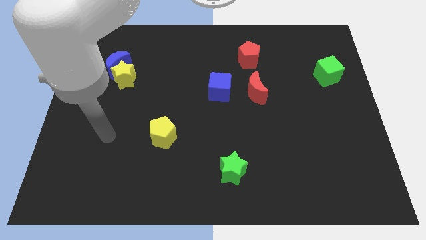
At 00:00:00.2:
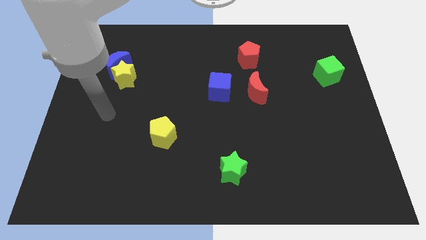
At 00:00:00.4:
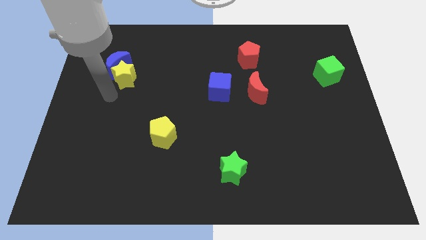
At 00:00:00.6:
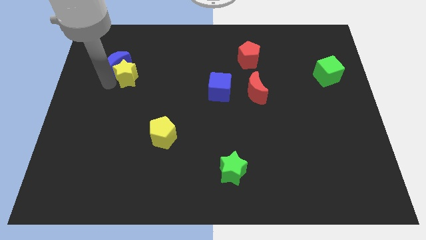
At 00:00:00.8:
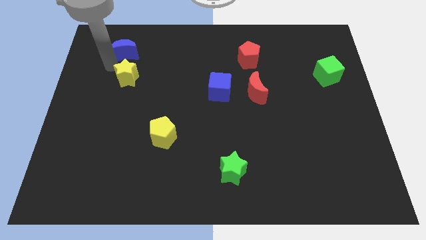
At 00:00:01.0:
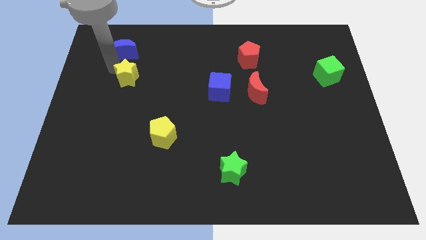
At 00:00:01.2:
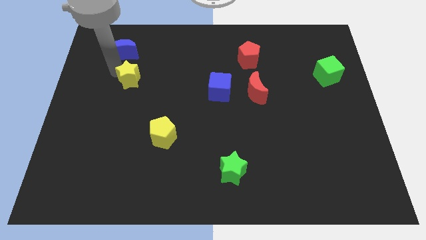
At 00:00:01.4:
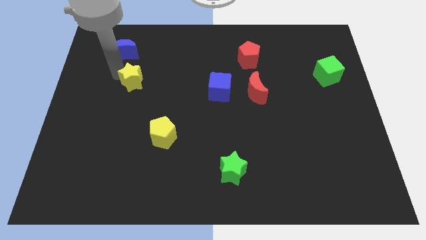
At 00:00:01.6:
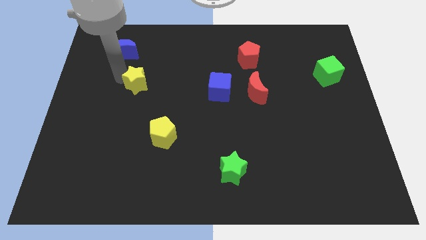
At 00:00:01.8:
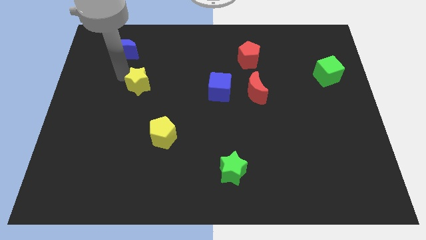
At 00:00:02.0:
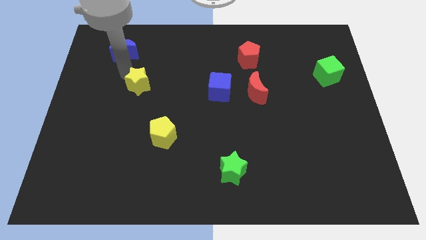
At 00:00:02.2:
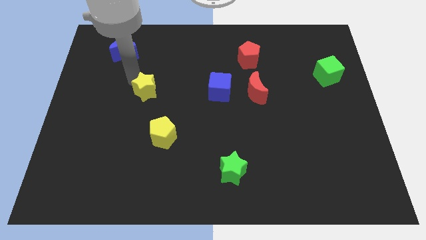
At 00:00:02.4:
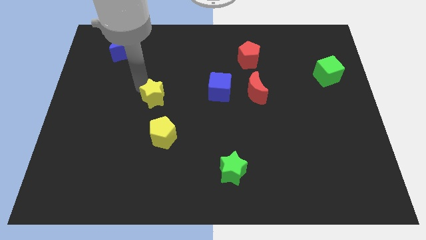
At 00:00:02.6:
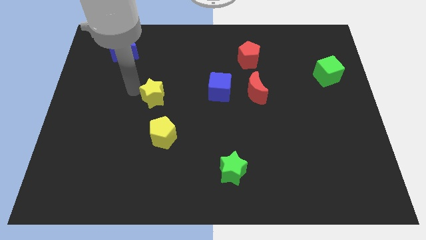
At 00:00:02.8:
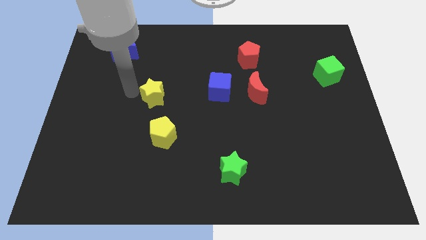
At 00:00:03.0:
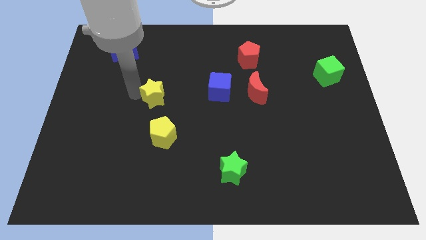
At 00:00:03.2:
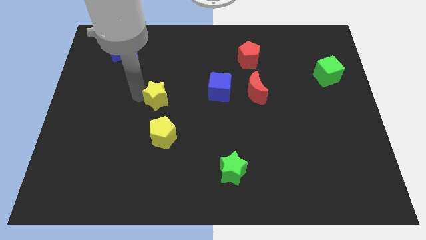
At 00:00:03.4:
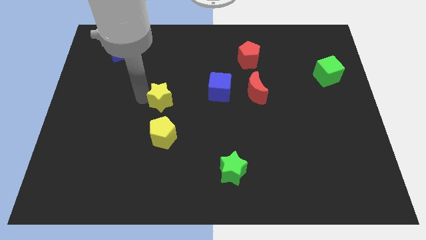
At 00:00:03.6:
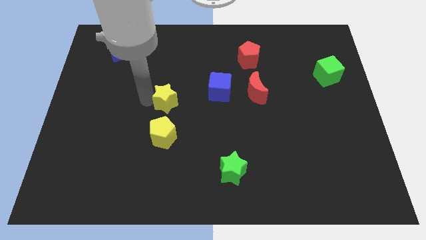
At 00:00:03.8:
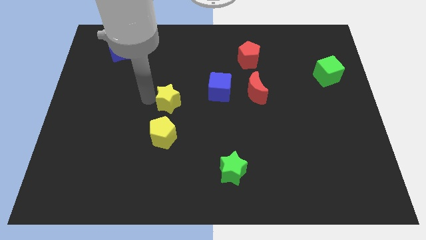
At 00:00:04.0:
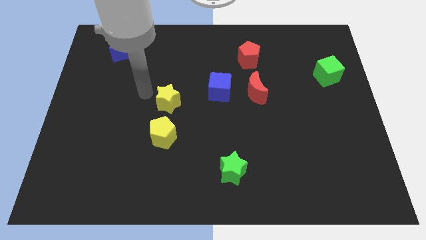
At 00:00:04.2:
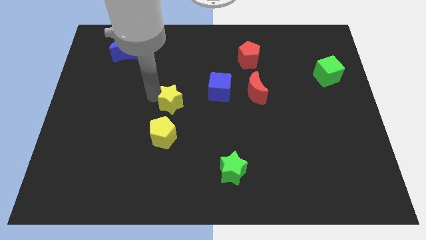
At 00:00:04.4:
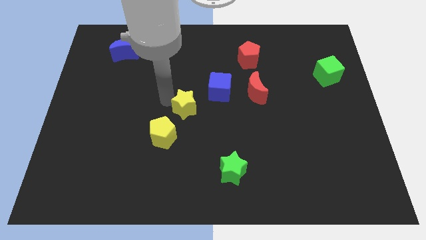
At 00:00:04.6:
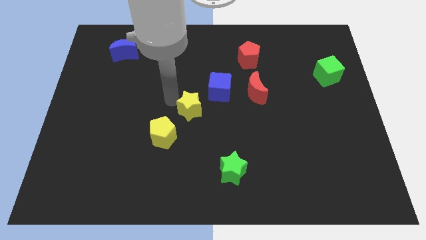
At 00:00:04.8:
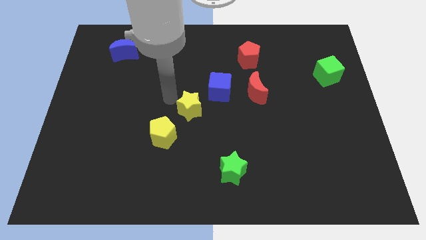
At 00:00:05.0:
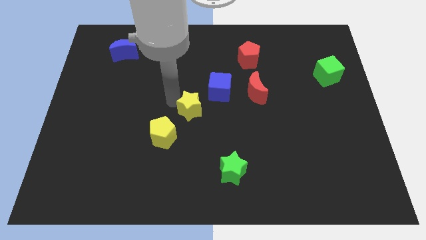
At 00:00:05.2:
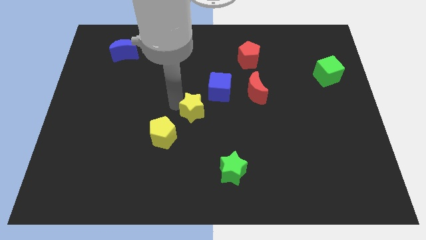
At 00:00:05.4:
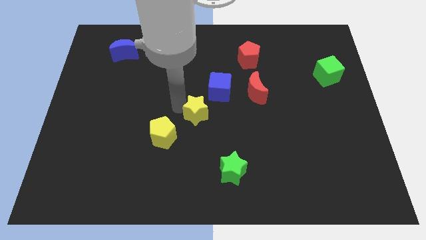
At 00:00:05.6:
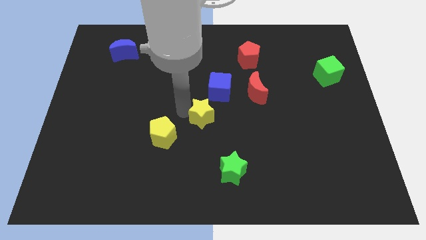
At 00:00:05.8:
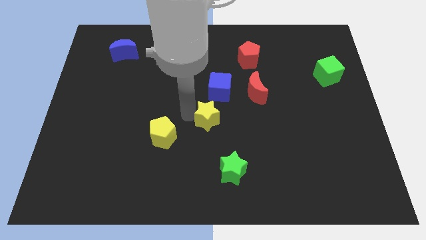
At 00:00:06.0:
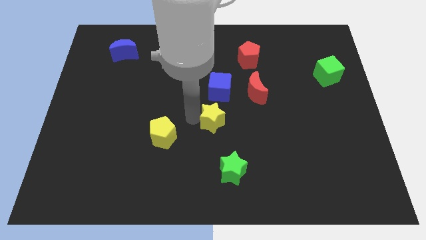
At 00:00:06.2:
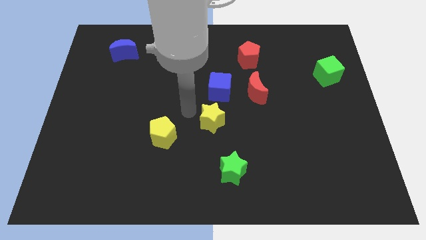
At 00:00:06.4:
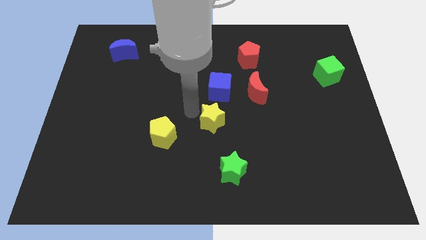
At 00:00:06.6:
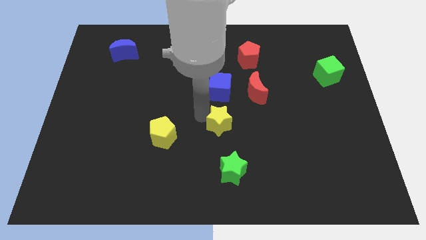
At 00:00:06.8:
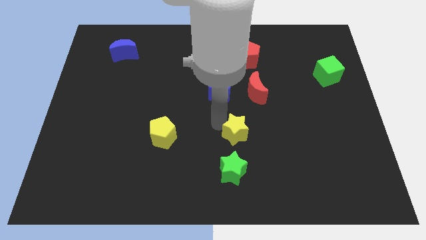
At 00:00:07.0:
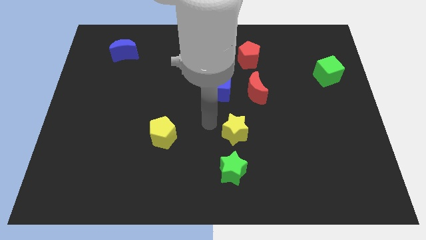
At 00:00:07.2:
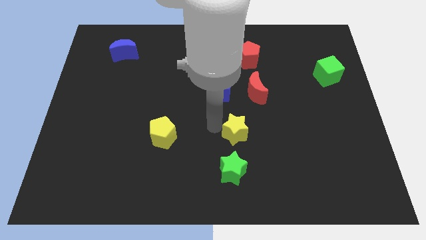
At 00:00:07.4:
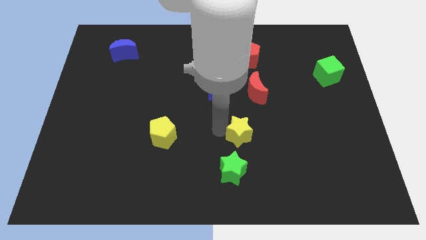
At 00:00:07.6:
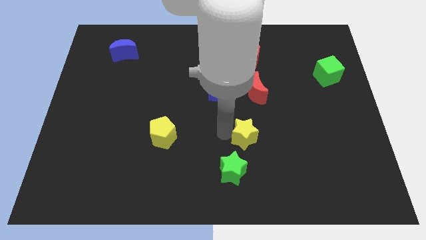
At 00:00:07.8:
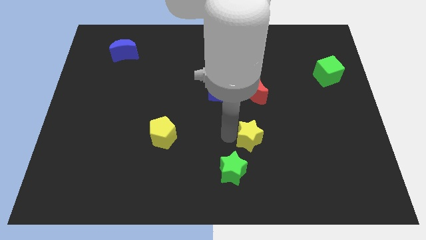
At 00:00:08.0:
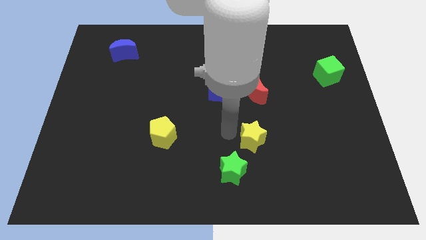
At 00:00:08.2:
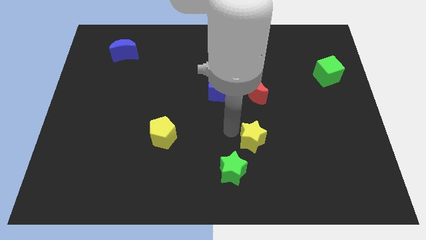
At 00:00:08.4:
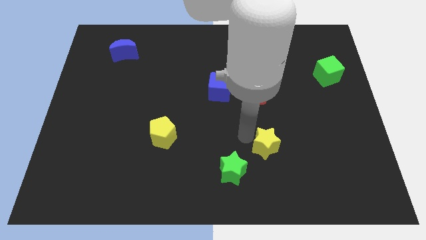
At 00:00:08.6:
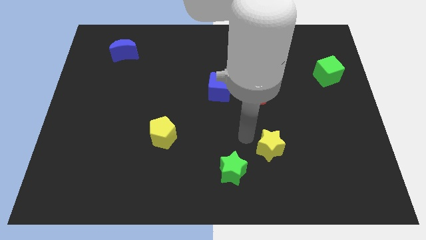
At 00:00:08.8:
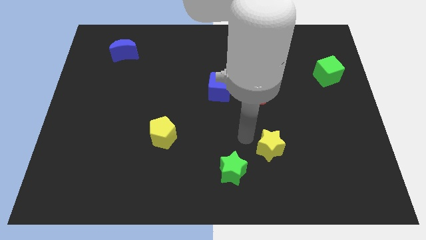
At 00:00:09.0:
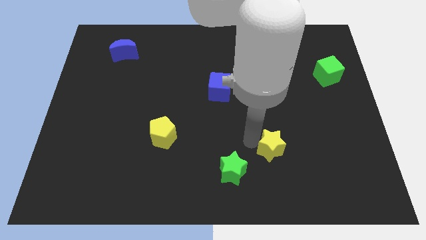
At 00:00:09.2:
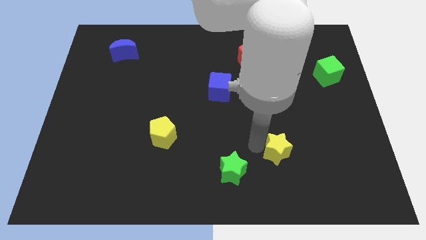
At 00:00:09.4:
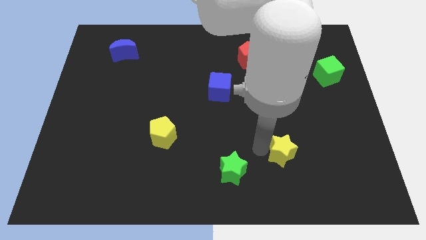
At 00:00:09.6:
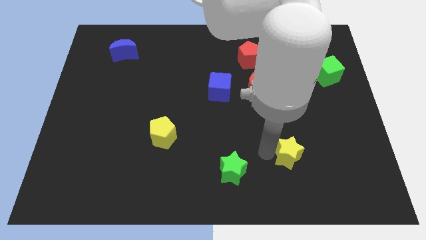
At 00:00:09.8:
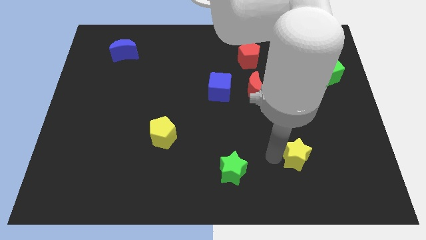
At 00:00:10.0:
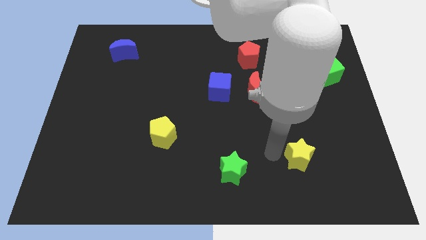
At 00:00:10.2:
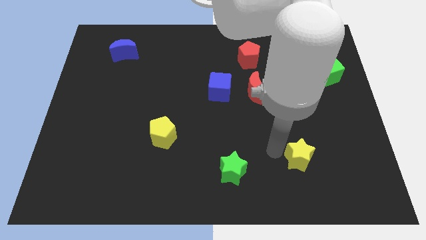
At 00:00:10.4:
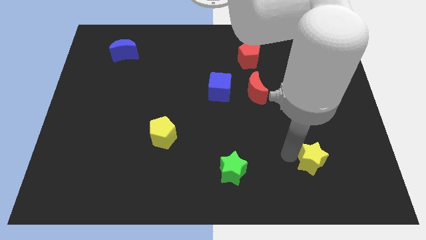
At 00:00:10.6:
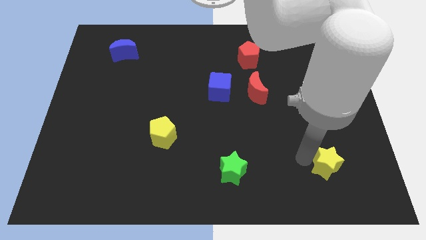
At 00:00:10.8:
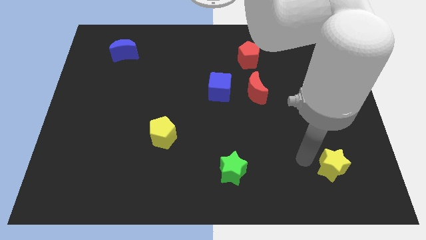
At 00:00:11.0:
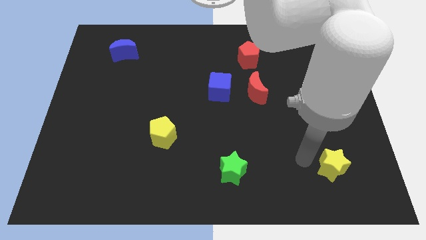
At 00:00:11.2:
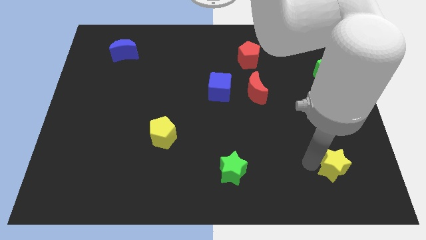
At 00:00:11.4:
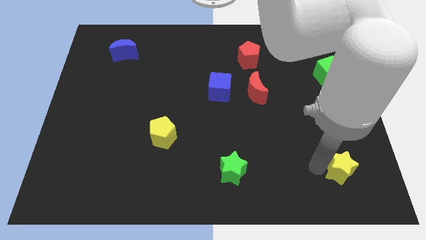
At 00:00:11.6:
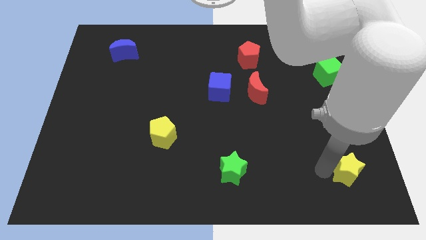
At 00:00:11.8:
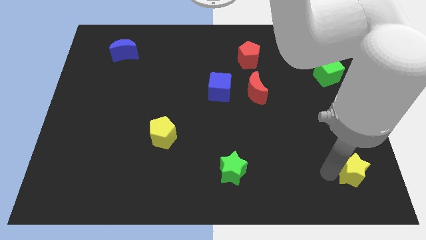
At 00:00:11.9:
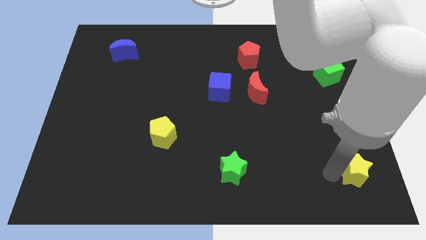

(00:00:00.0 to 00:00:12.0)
slide the yellow star to the bottom right of the board
